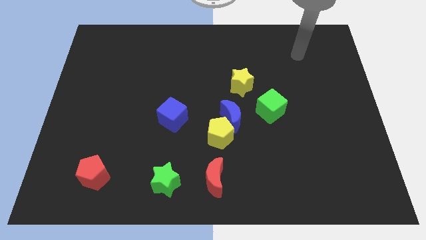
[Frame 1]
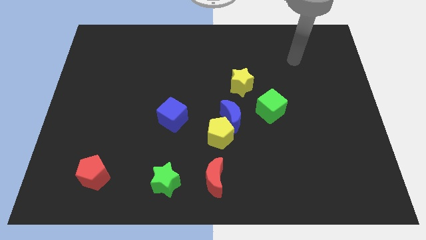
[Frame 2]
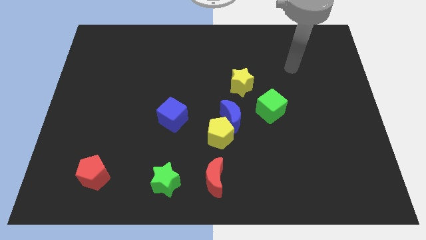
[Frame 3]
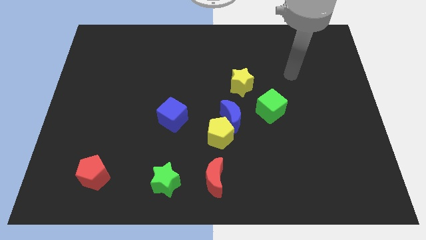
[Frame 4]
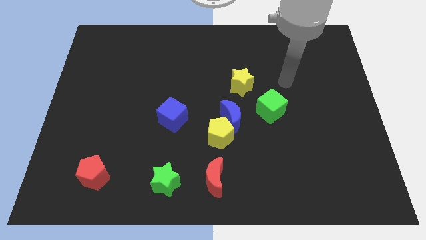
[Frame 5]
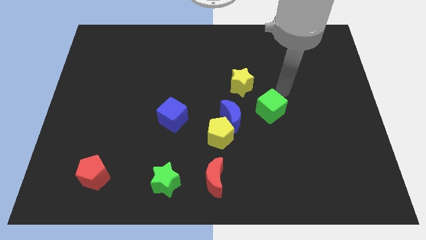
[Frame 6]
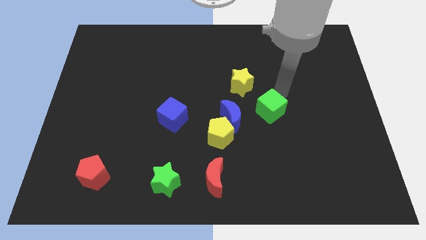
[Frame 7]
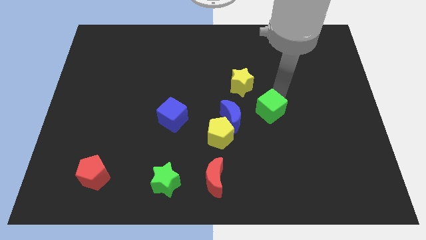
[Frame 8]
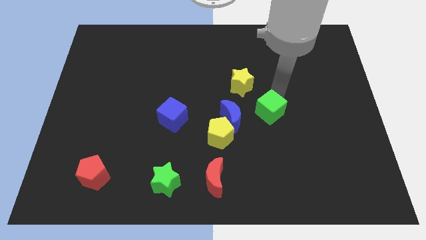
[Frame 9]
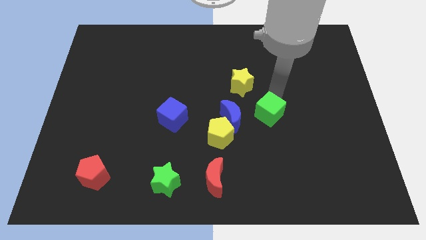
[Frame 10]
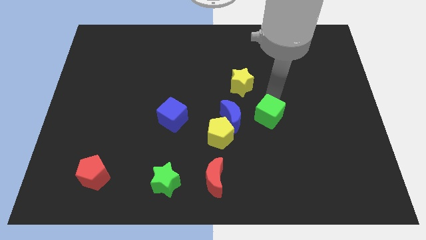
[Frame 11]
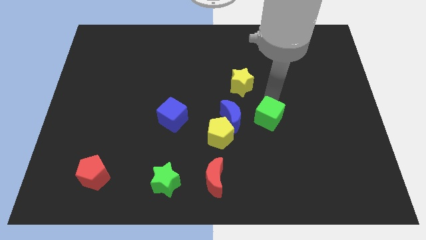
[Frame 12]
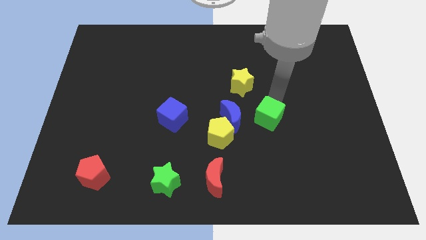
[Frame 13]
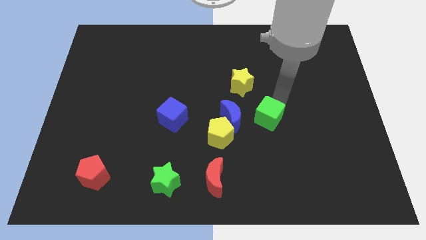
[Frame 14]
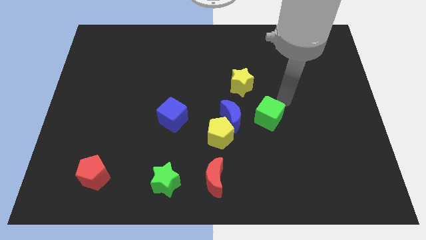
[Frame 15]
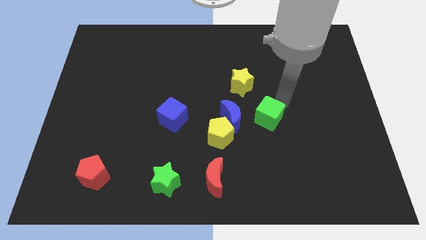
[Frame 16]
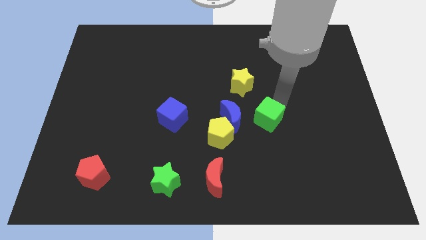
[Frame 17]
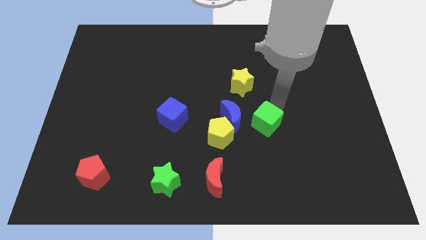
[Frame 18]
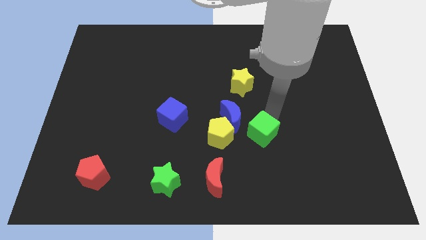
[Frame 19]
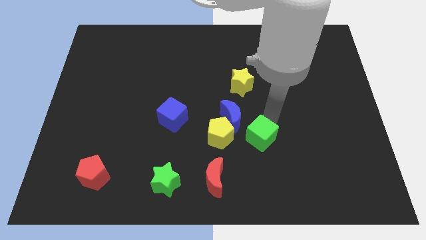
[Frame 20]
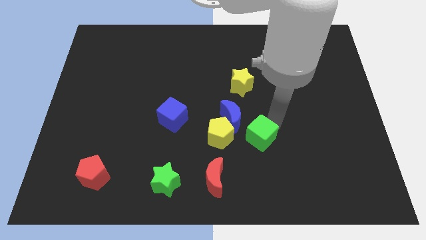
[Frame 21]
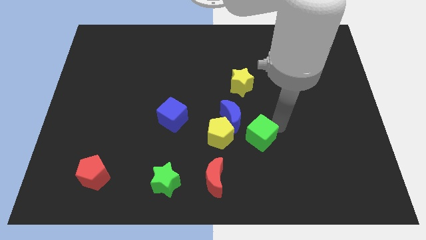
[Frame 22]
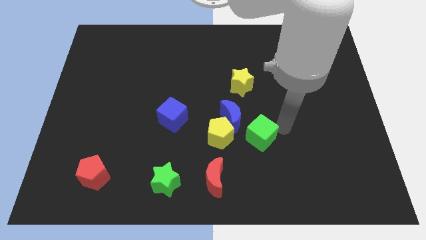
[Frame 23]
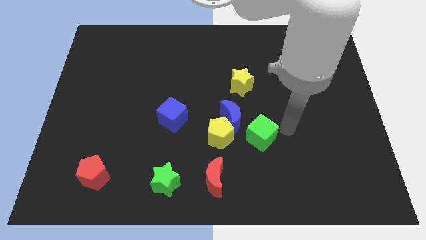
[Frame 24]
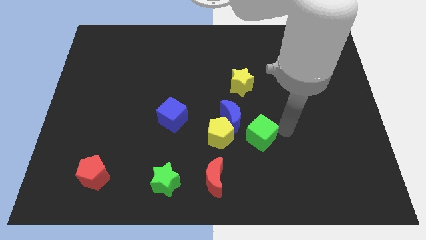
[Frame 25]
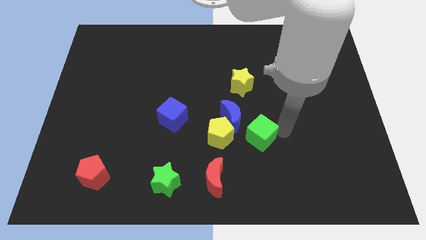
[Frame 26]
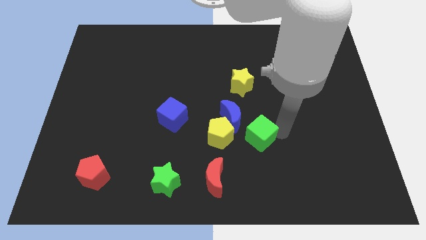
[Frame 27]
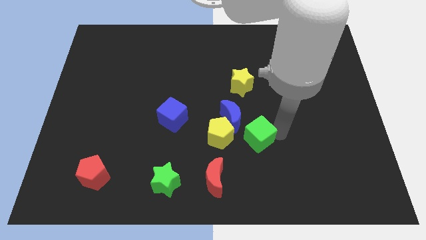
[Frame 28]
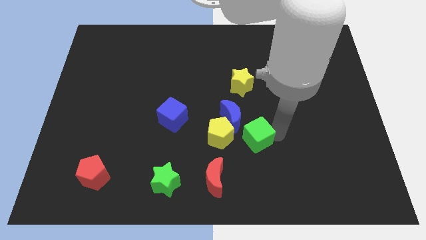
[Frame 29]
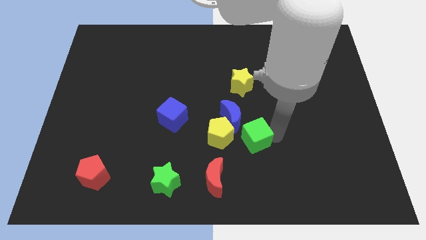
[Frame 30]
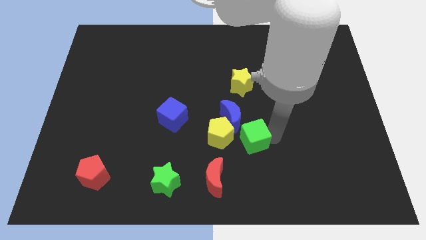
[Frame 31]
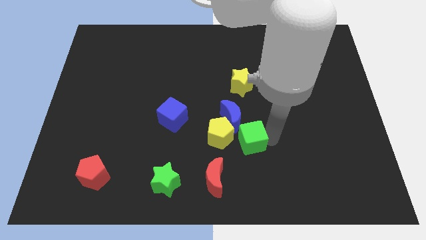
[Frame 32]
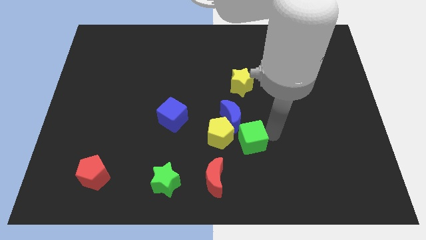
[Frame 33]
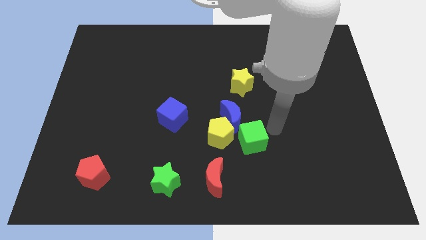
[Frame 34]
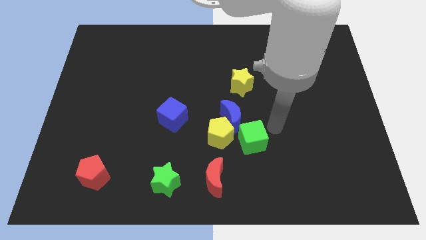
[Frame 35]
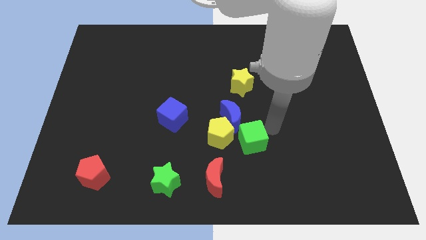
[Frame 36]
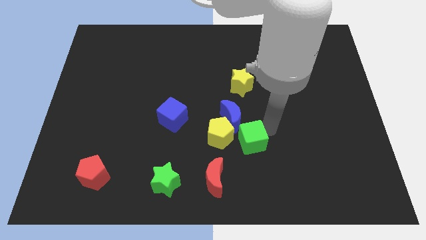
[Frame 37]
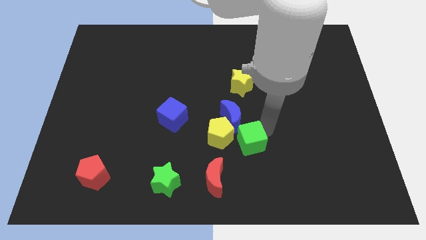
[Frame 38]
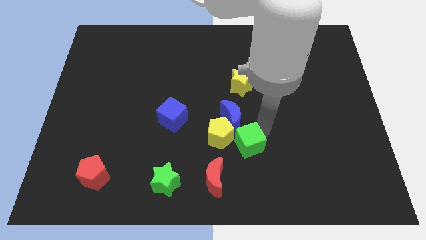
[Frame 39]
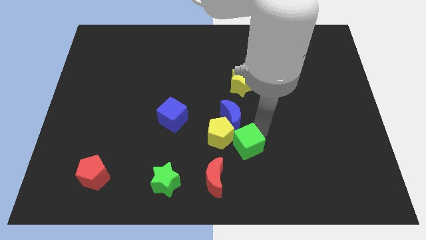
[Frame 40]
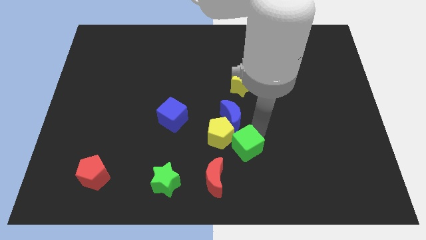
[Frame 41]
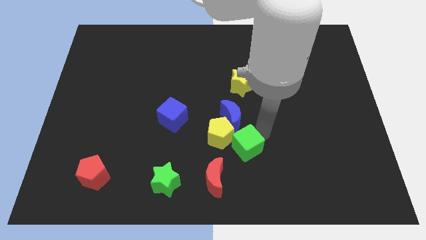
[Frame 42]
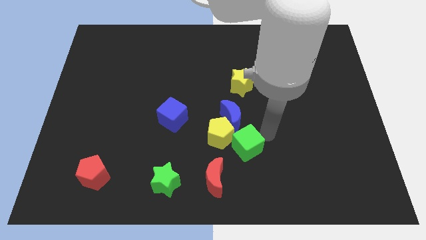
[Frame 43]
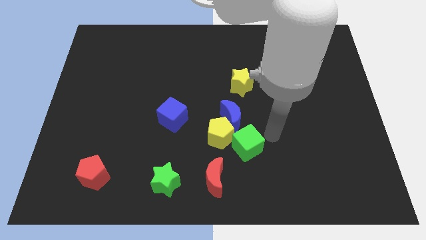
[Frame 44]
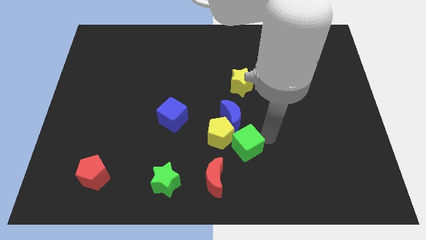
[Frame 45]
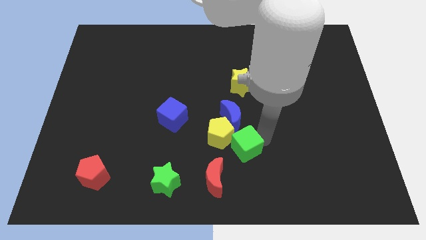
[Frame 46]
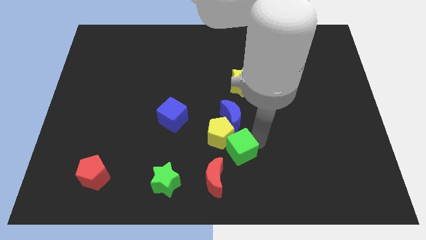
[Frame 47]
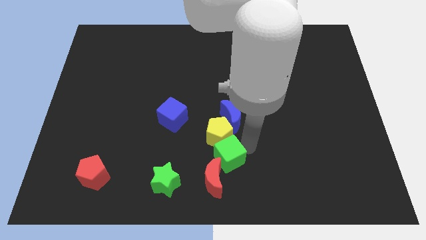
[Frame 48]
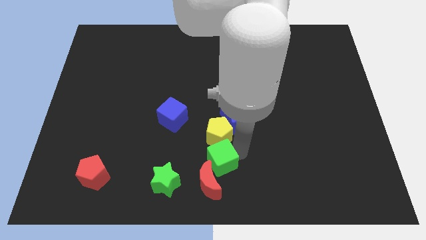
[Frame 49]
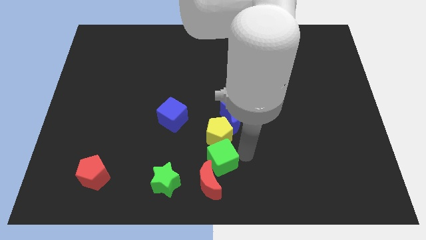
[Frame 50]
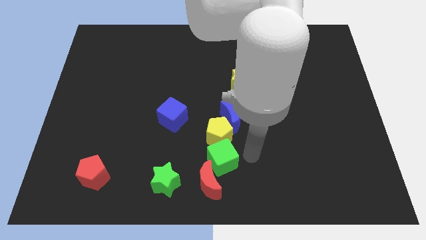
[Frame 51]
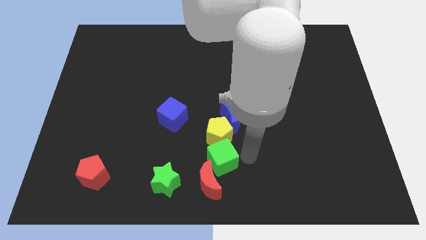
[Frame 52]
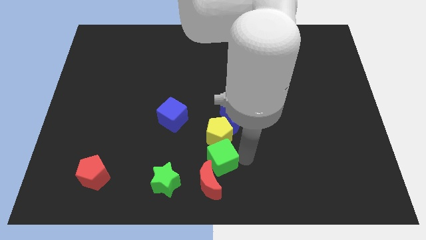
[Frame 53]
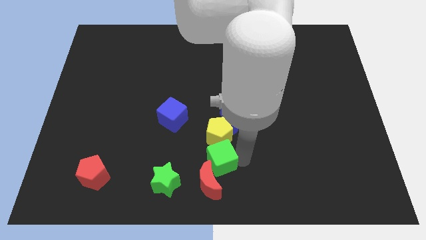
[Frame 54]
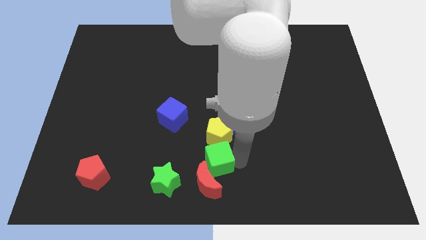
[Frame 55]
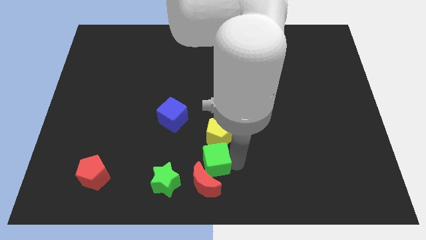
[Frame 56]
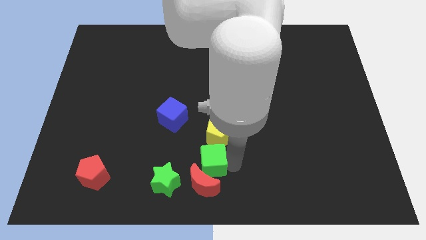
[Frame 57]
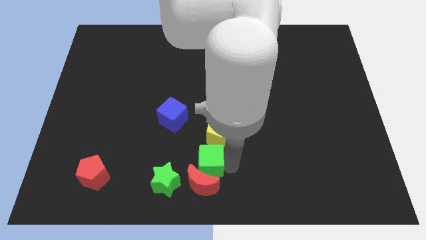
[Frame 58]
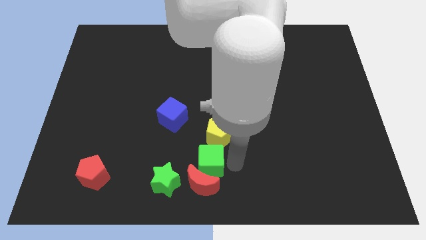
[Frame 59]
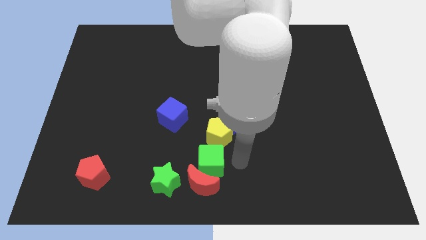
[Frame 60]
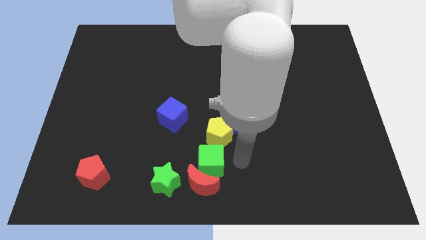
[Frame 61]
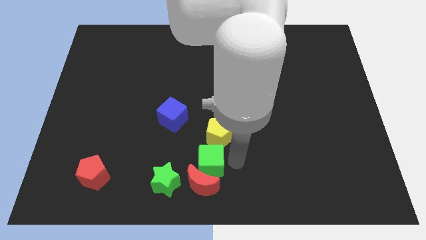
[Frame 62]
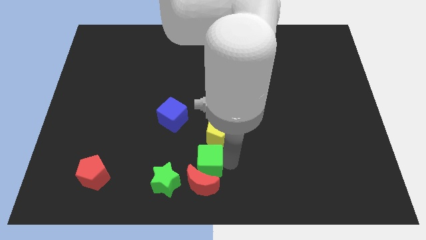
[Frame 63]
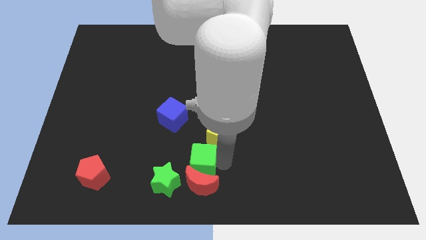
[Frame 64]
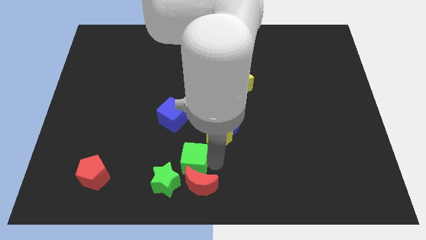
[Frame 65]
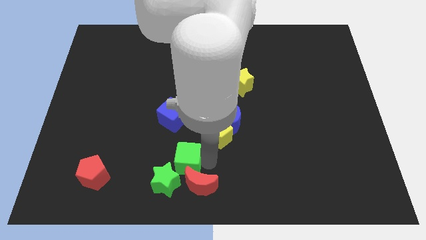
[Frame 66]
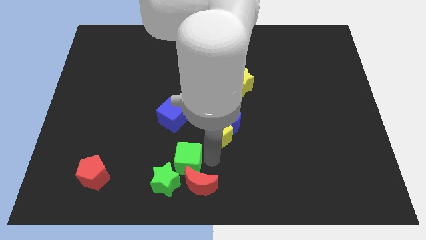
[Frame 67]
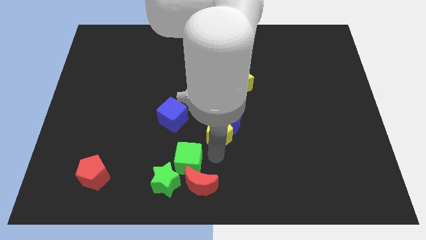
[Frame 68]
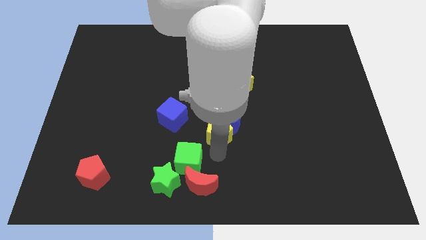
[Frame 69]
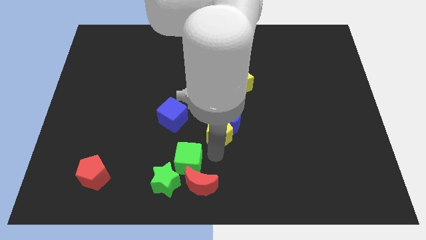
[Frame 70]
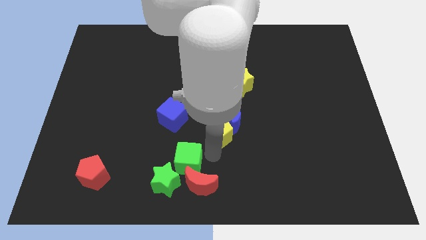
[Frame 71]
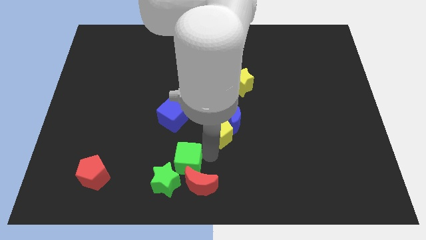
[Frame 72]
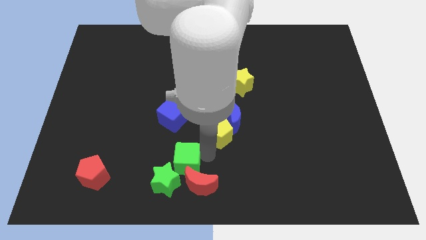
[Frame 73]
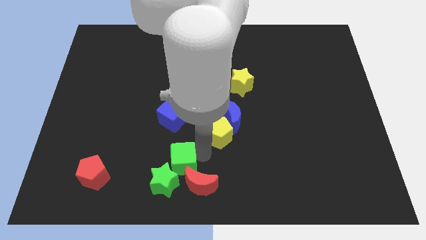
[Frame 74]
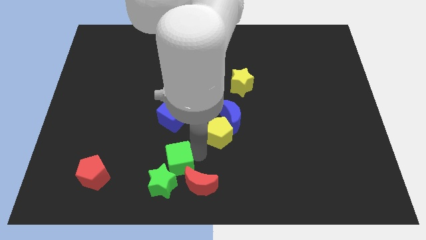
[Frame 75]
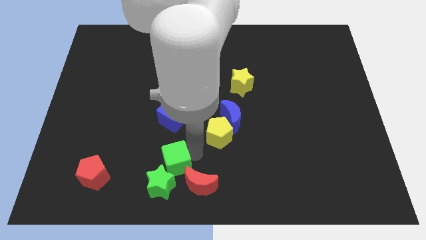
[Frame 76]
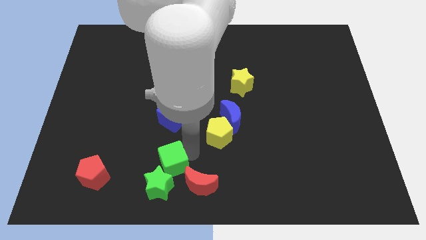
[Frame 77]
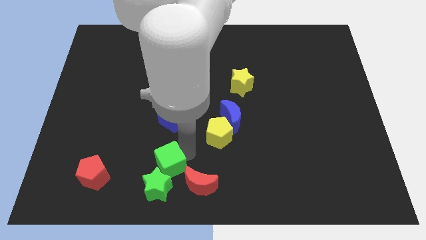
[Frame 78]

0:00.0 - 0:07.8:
push the green cube to the right of the red pentagon
